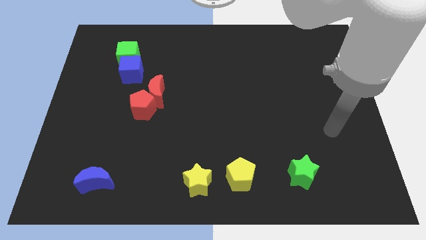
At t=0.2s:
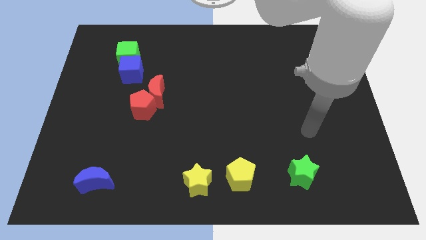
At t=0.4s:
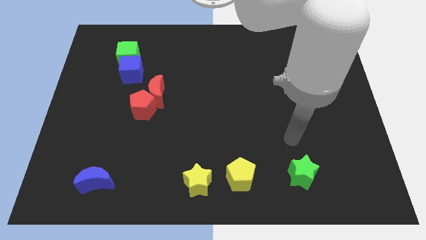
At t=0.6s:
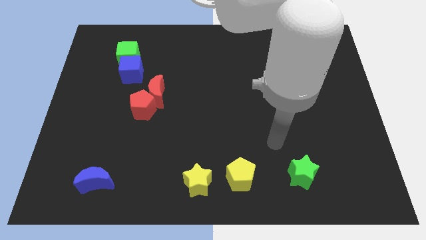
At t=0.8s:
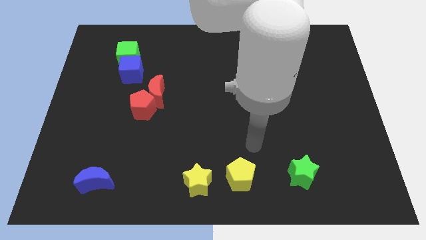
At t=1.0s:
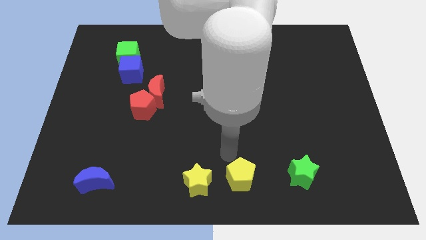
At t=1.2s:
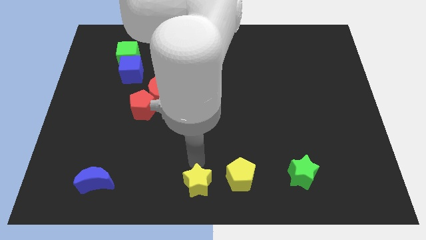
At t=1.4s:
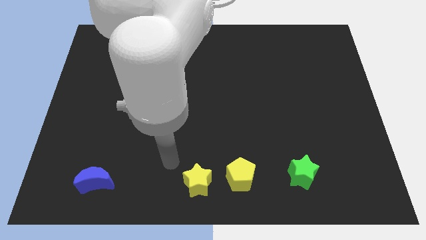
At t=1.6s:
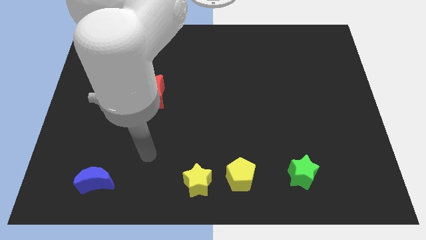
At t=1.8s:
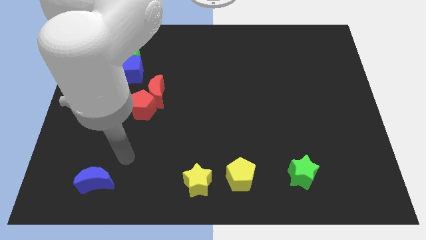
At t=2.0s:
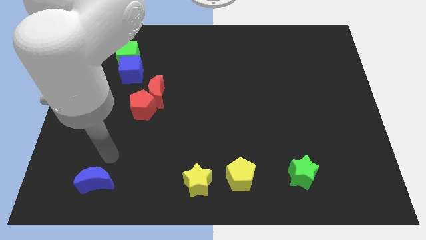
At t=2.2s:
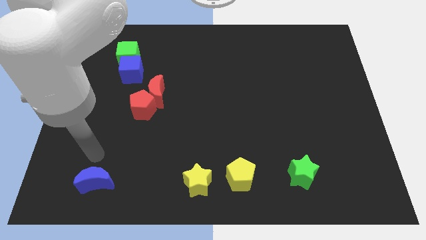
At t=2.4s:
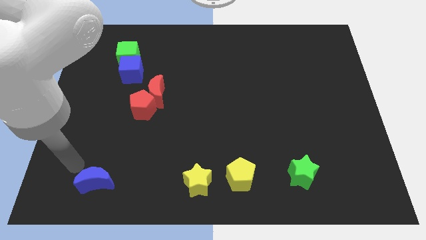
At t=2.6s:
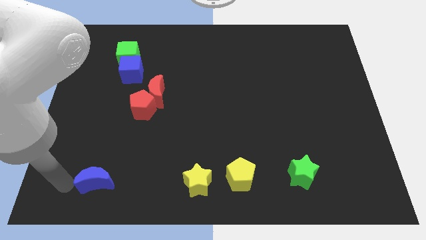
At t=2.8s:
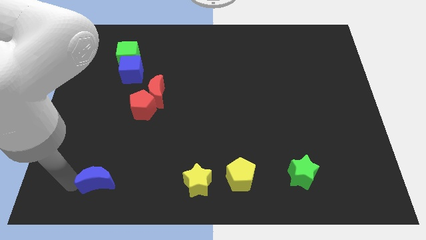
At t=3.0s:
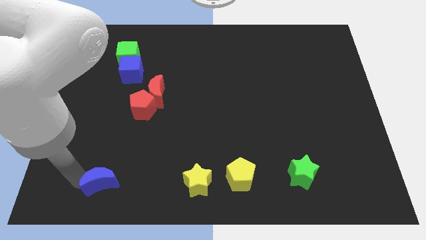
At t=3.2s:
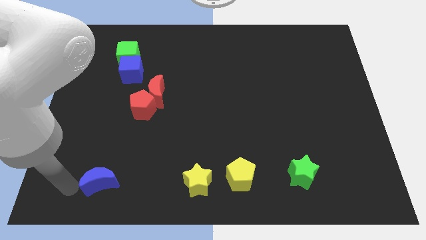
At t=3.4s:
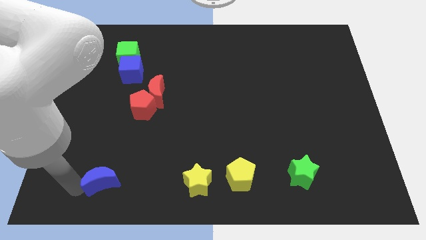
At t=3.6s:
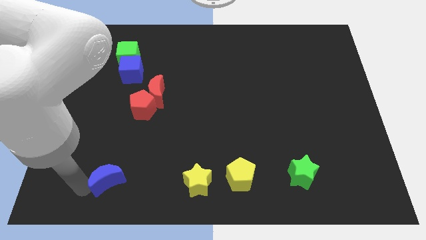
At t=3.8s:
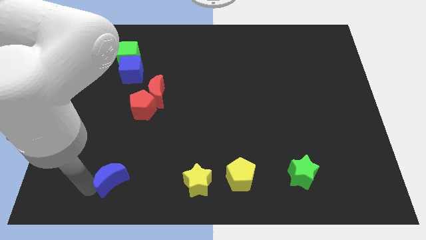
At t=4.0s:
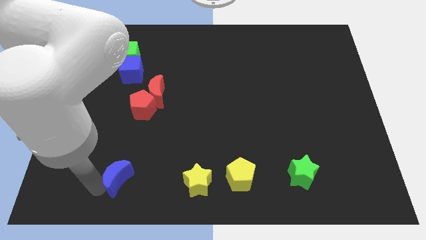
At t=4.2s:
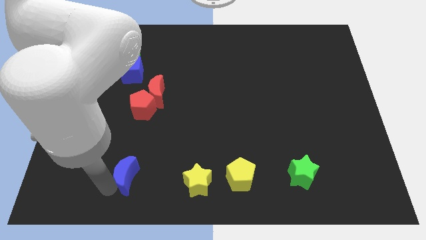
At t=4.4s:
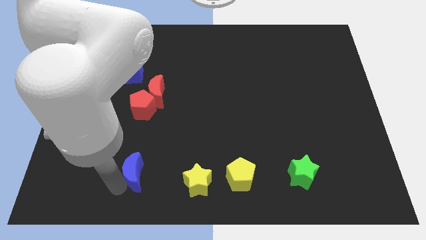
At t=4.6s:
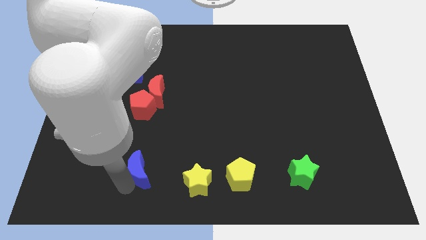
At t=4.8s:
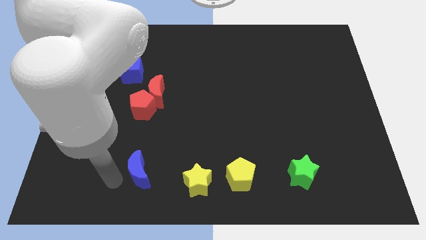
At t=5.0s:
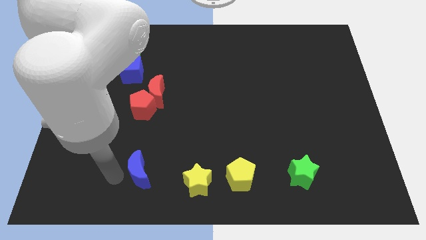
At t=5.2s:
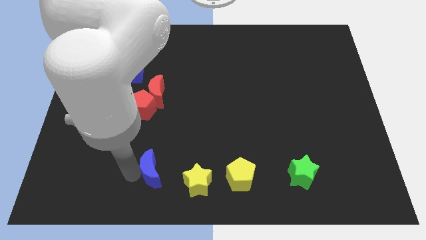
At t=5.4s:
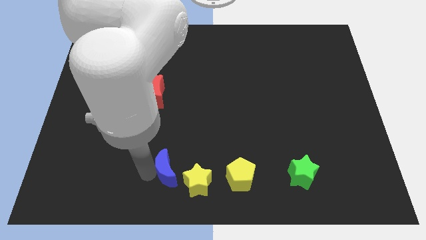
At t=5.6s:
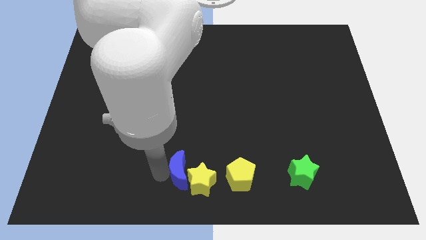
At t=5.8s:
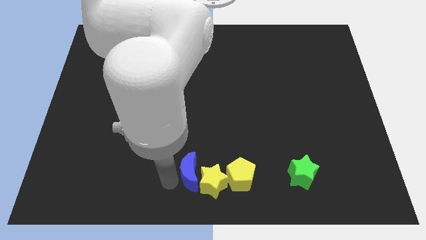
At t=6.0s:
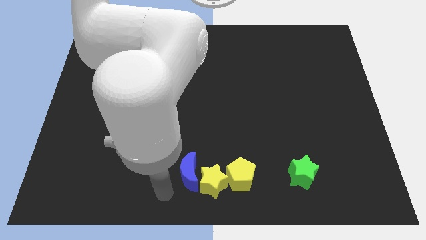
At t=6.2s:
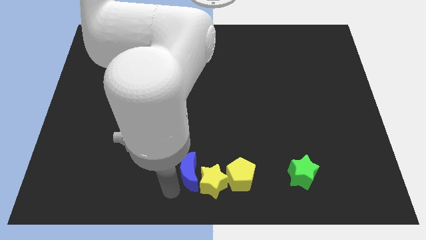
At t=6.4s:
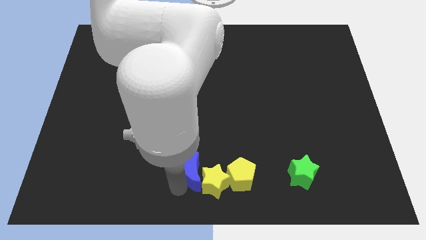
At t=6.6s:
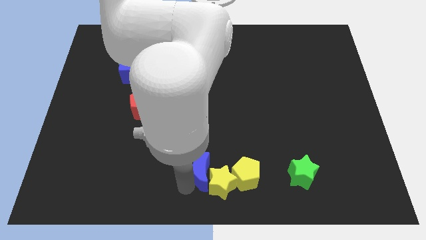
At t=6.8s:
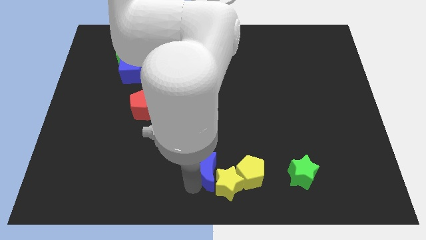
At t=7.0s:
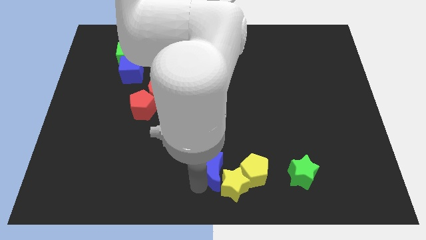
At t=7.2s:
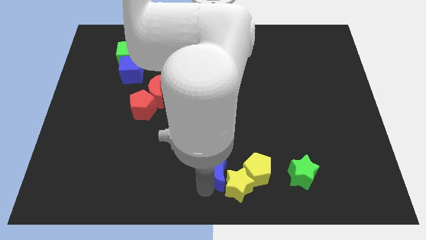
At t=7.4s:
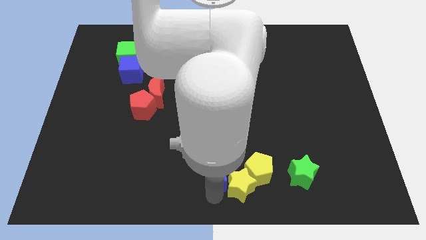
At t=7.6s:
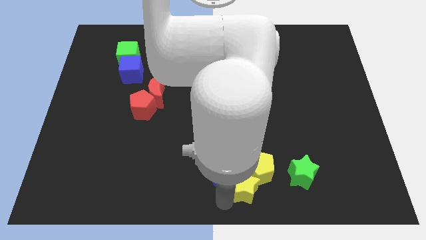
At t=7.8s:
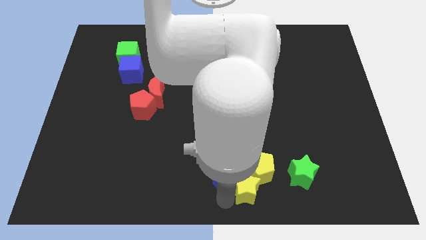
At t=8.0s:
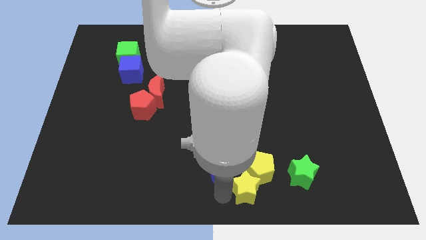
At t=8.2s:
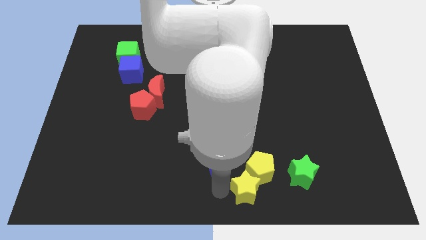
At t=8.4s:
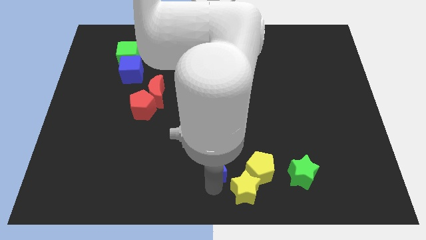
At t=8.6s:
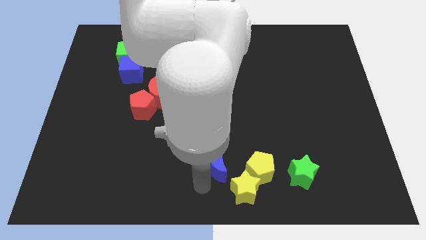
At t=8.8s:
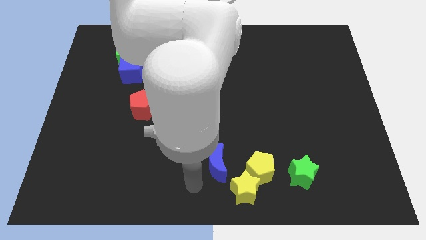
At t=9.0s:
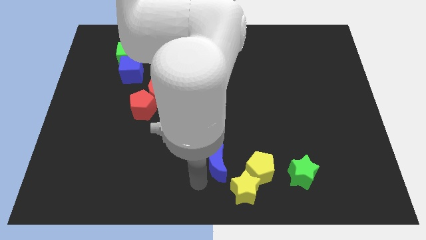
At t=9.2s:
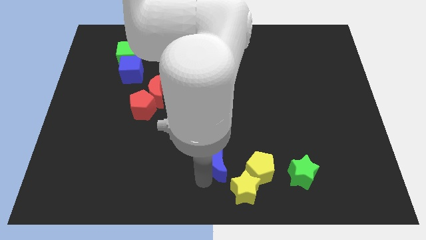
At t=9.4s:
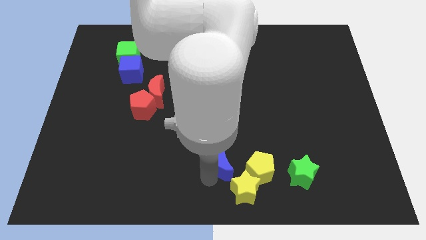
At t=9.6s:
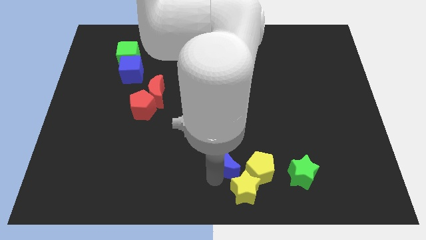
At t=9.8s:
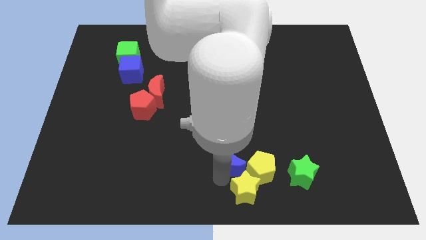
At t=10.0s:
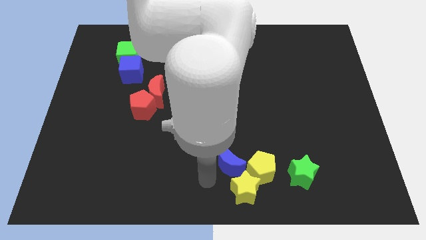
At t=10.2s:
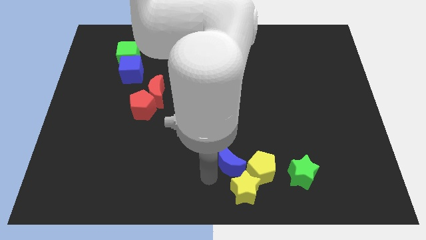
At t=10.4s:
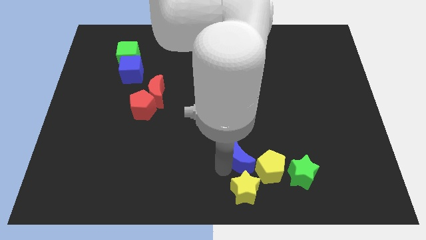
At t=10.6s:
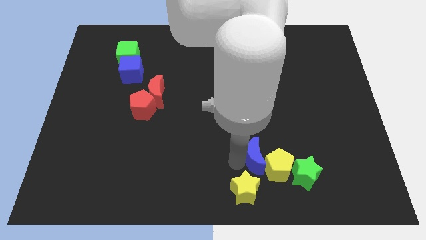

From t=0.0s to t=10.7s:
put the blue moon to the top left of the green star

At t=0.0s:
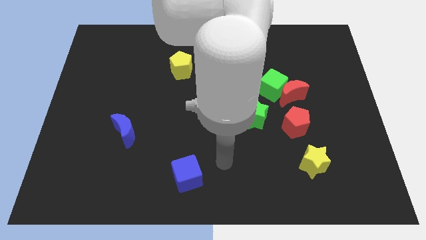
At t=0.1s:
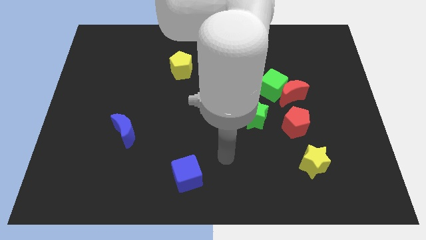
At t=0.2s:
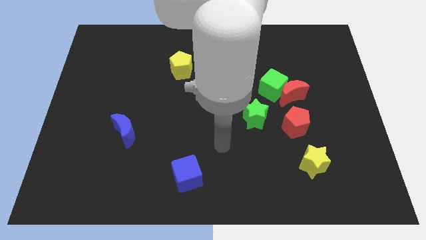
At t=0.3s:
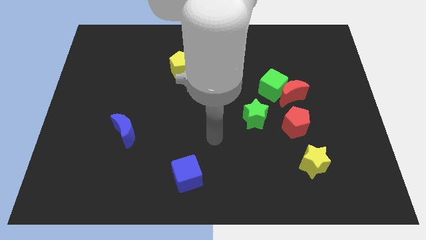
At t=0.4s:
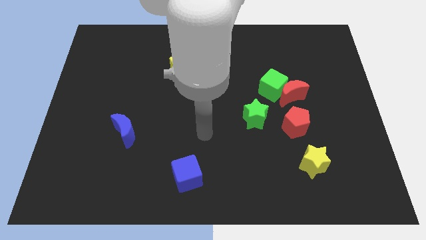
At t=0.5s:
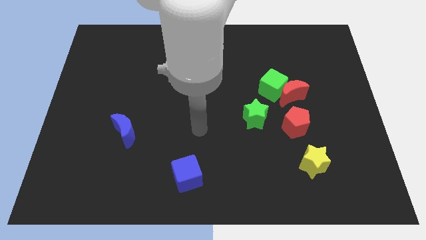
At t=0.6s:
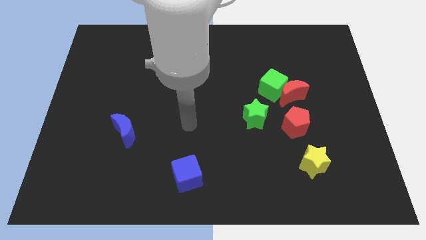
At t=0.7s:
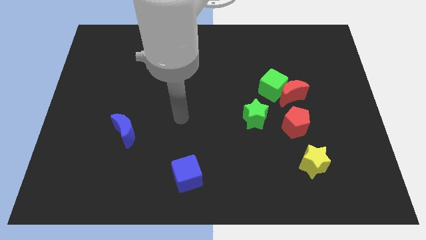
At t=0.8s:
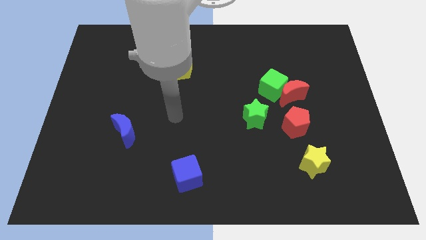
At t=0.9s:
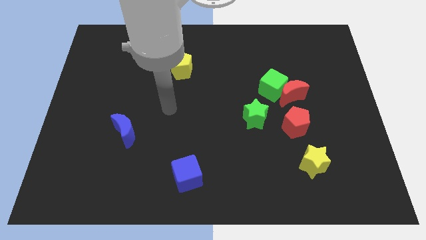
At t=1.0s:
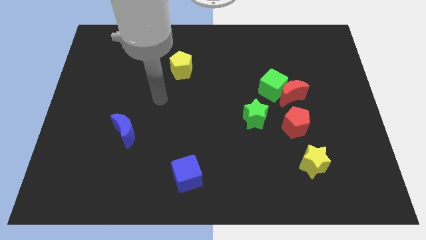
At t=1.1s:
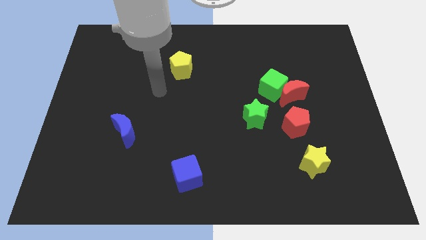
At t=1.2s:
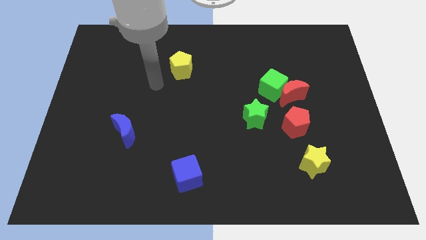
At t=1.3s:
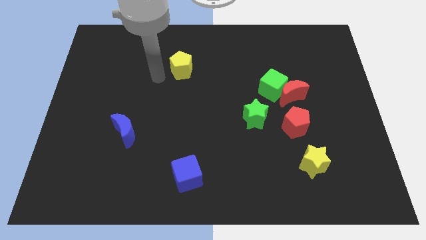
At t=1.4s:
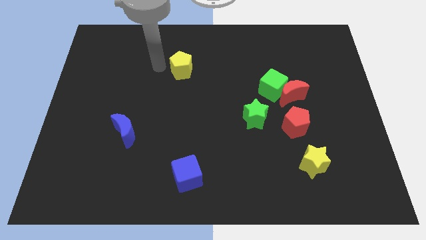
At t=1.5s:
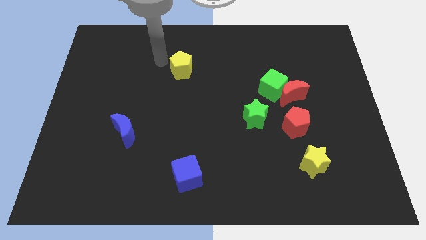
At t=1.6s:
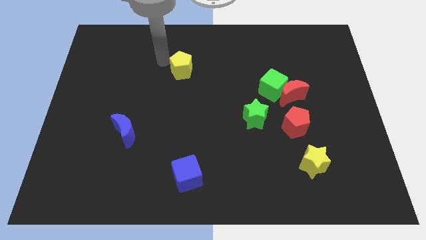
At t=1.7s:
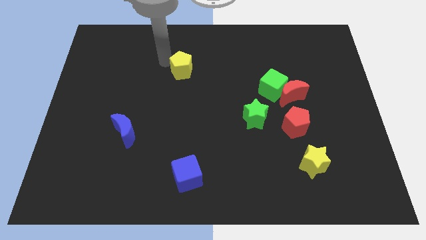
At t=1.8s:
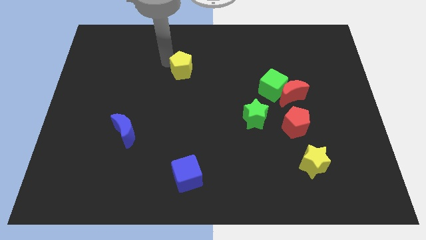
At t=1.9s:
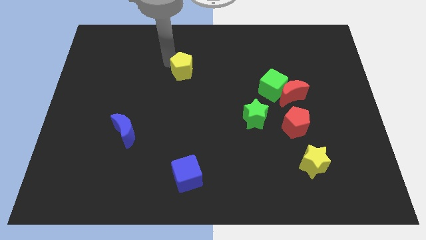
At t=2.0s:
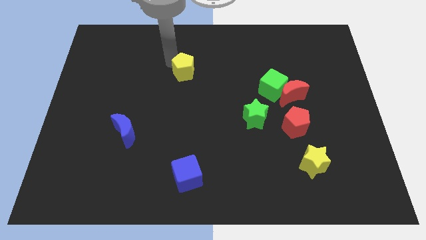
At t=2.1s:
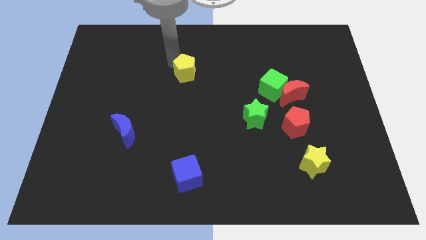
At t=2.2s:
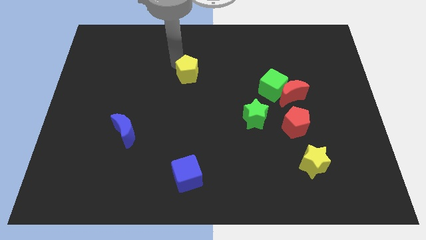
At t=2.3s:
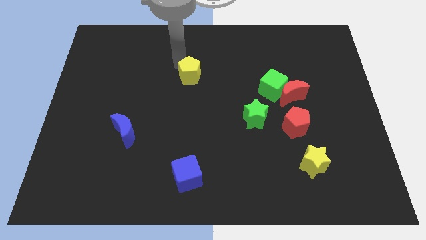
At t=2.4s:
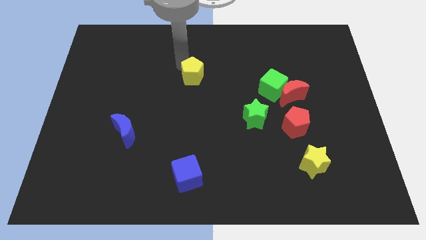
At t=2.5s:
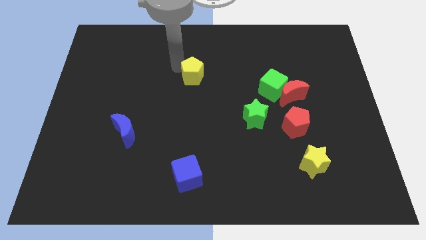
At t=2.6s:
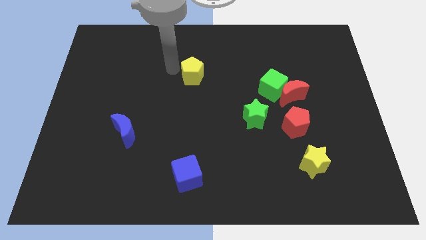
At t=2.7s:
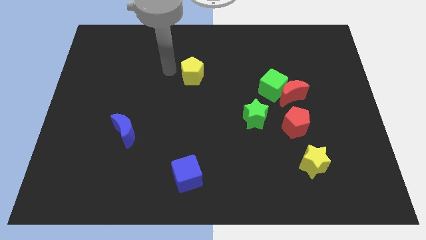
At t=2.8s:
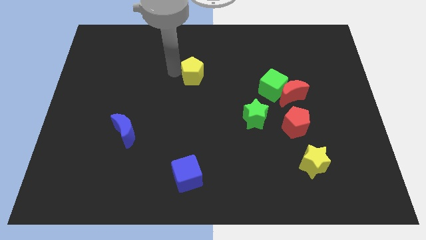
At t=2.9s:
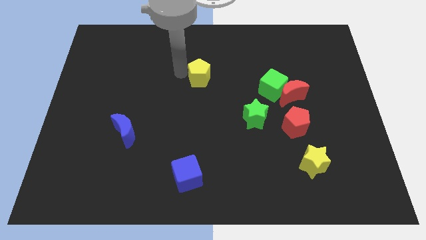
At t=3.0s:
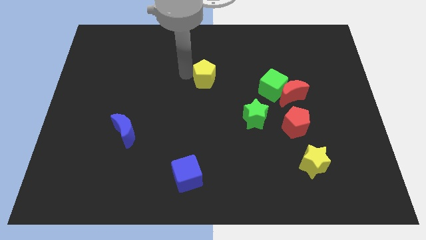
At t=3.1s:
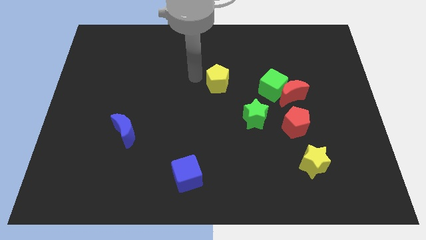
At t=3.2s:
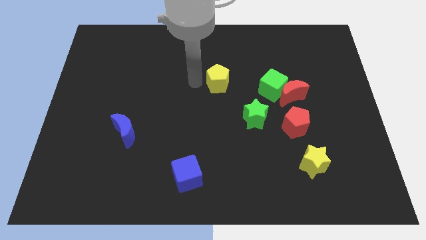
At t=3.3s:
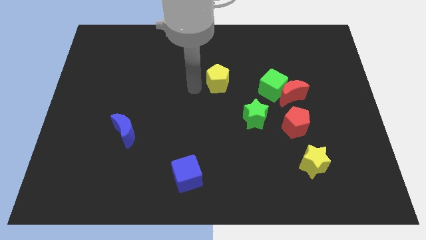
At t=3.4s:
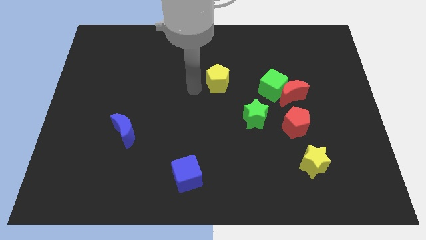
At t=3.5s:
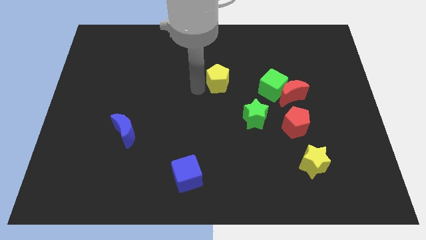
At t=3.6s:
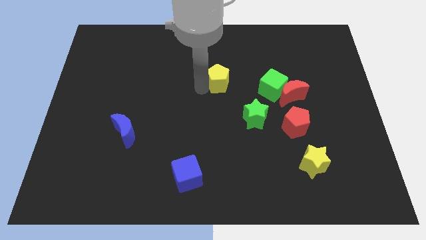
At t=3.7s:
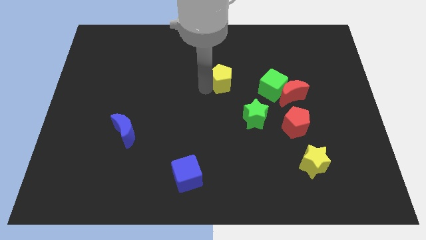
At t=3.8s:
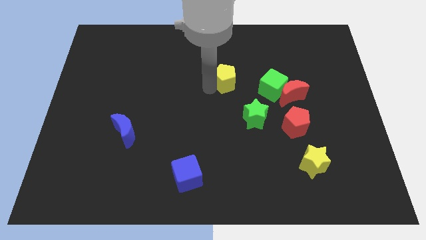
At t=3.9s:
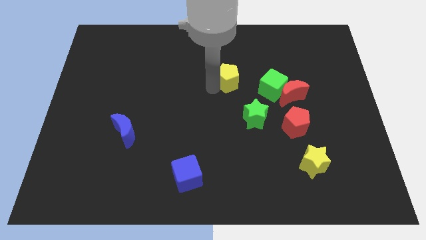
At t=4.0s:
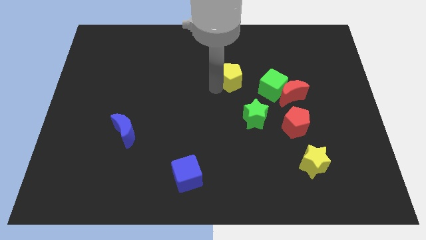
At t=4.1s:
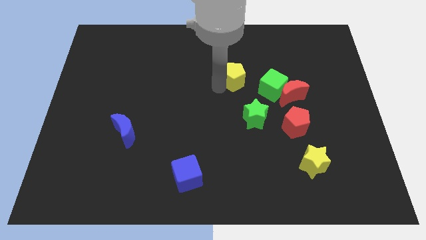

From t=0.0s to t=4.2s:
push the yellow pentagon to the top left of the green cube
